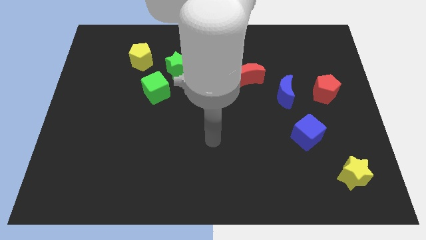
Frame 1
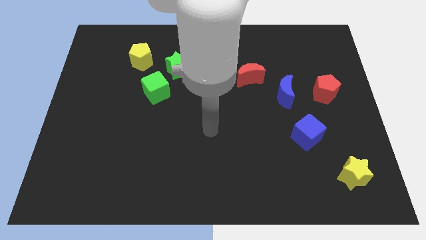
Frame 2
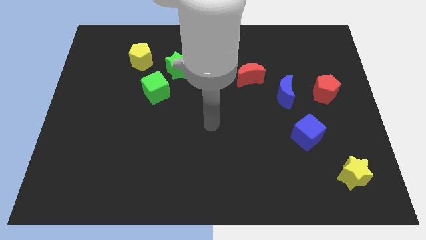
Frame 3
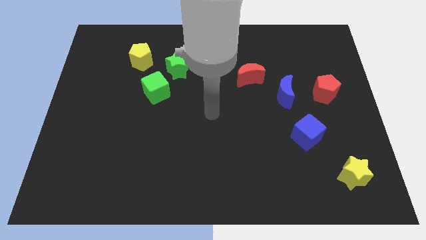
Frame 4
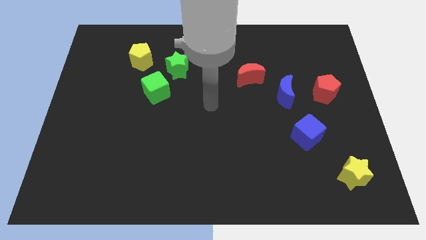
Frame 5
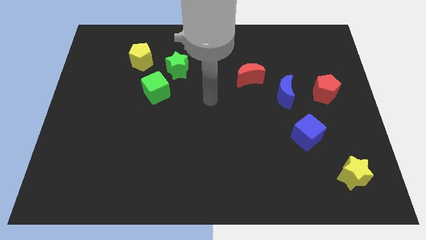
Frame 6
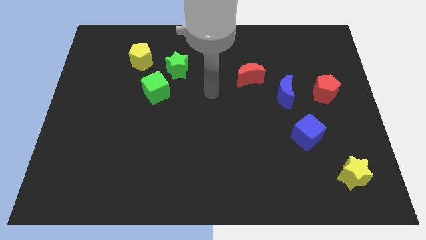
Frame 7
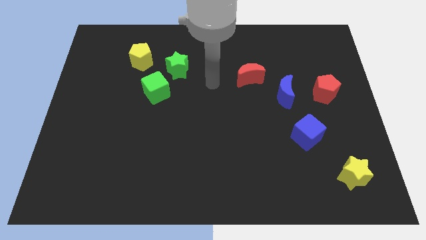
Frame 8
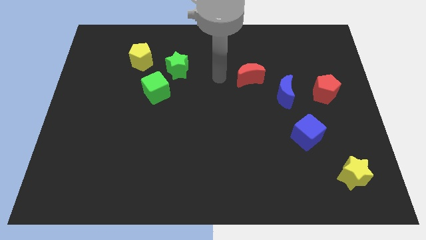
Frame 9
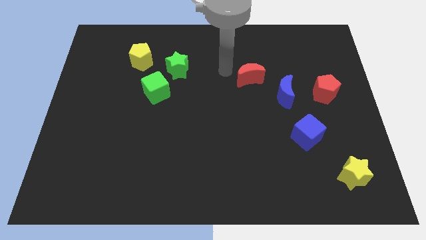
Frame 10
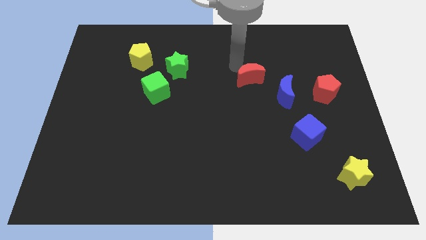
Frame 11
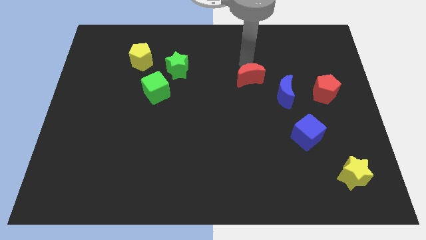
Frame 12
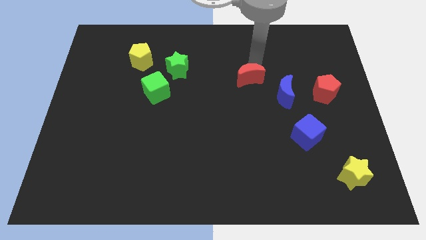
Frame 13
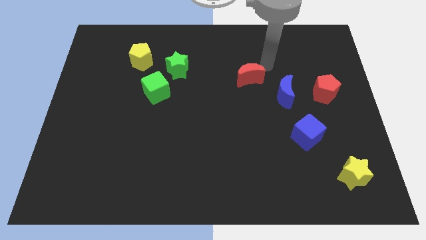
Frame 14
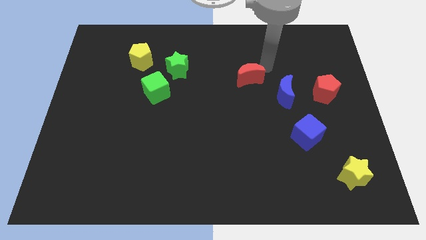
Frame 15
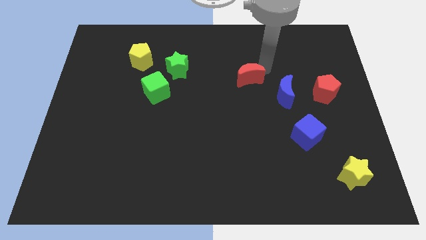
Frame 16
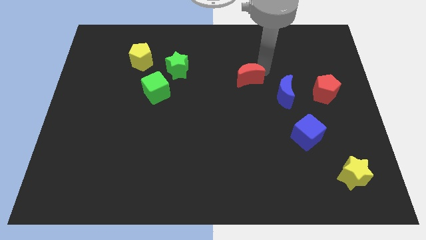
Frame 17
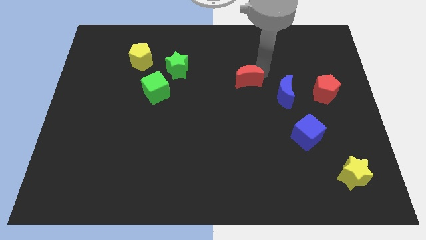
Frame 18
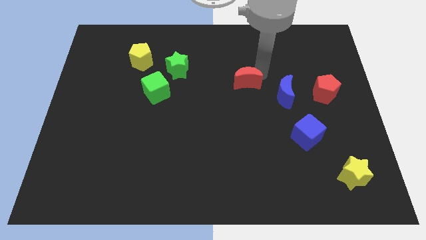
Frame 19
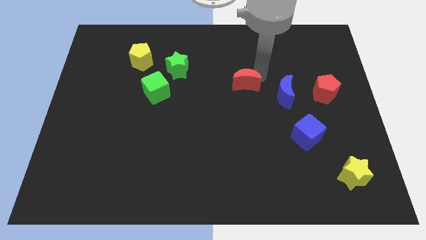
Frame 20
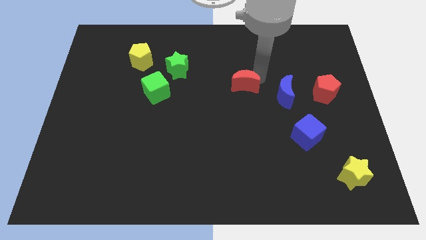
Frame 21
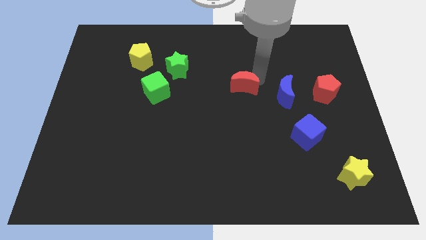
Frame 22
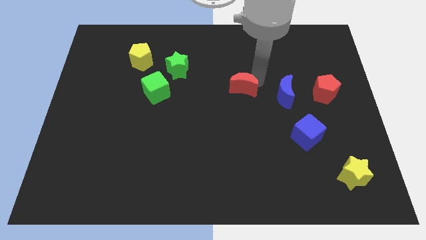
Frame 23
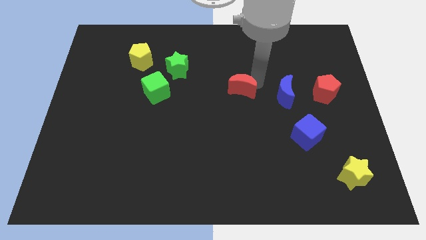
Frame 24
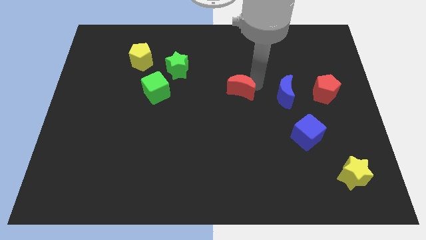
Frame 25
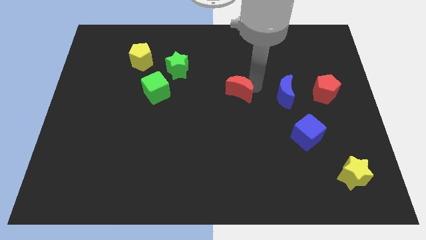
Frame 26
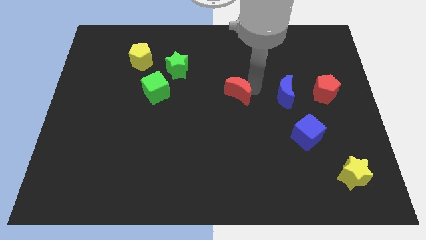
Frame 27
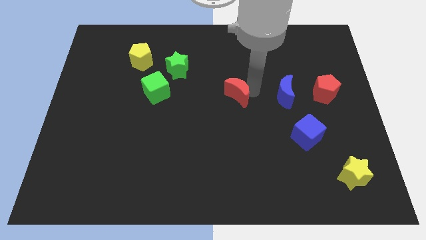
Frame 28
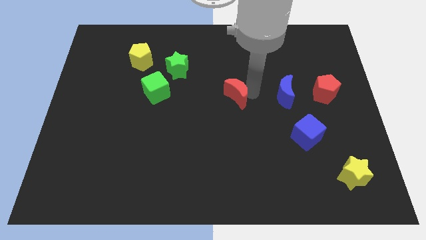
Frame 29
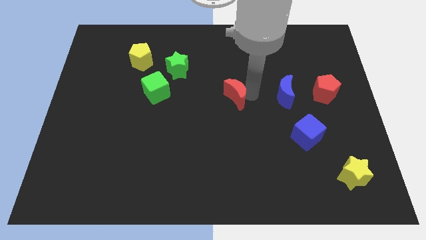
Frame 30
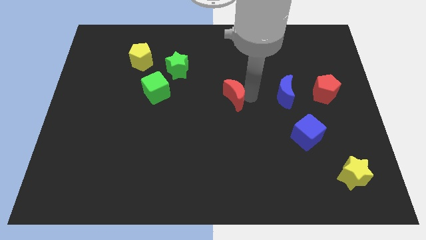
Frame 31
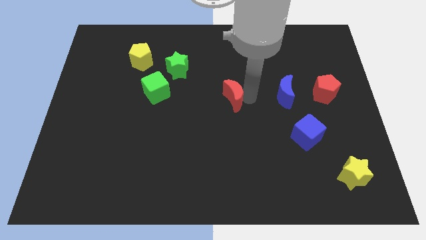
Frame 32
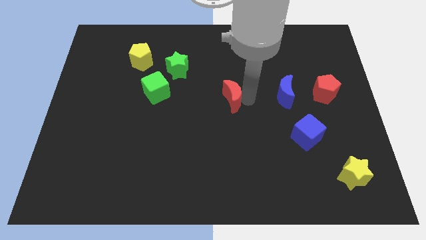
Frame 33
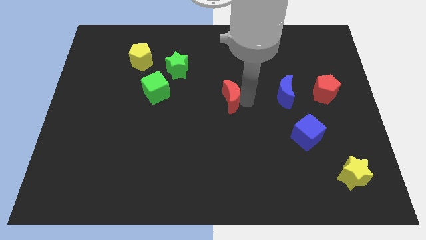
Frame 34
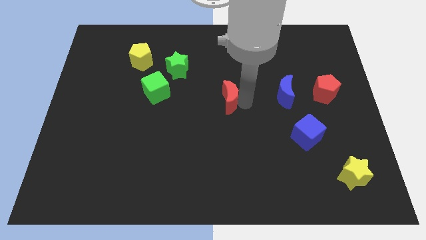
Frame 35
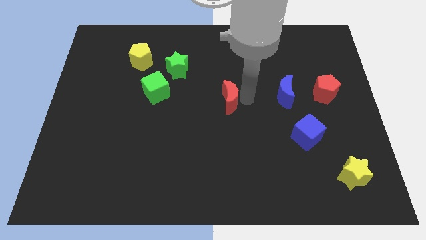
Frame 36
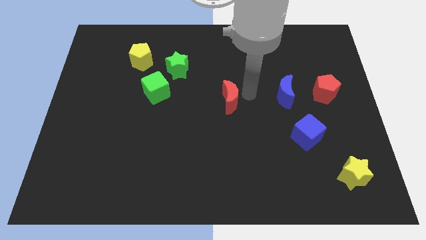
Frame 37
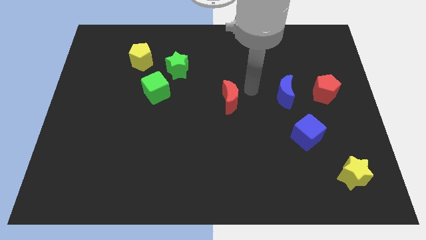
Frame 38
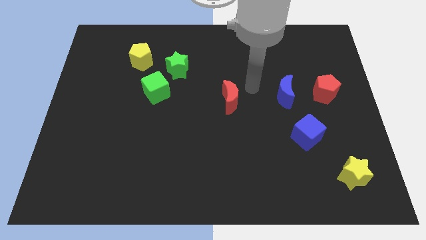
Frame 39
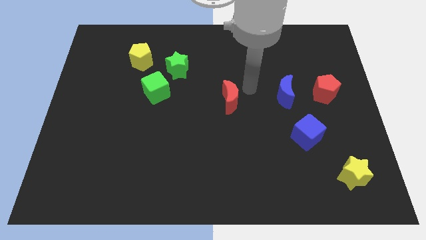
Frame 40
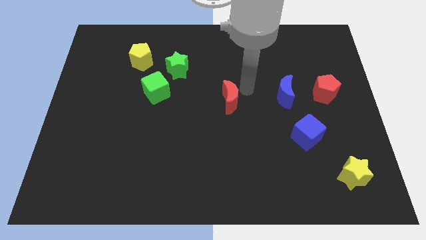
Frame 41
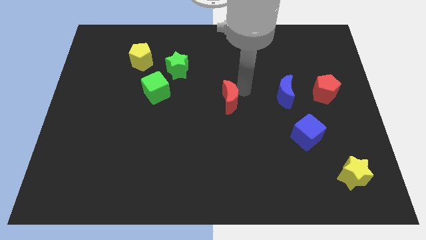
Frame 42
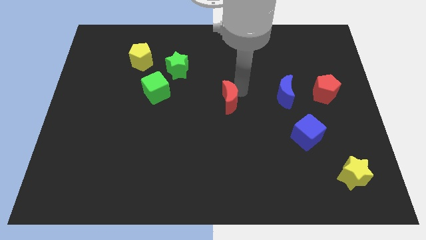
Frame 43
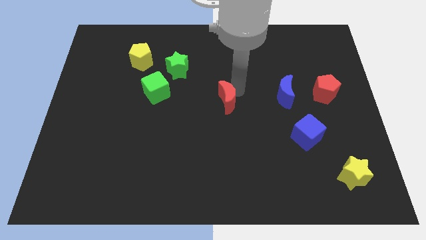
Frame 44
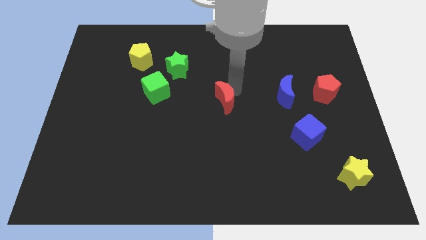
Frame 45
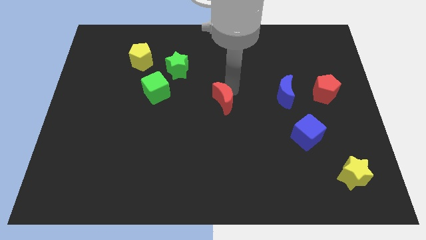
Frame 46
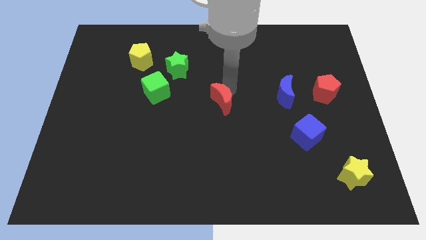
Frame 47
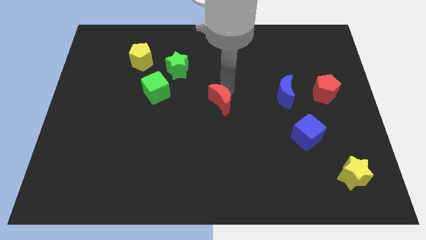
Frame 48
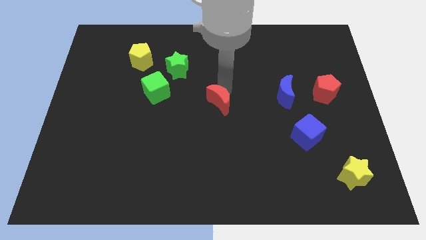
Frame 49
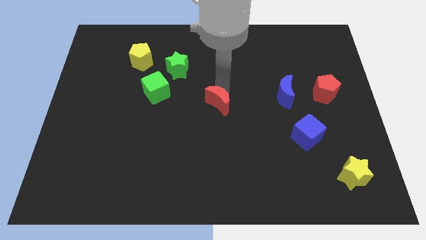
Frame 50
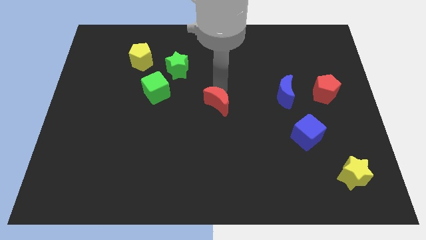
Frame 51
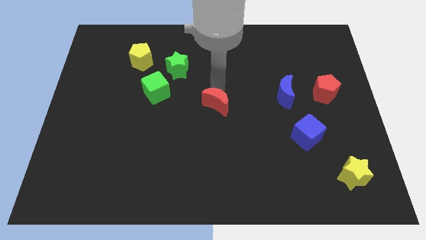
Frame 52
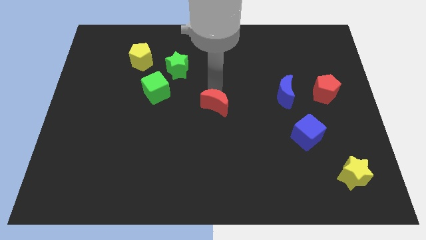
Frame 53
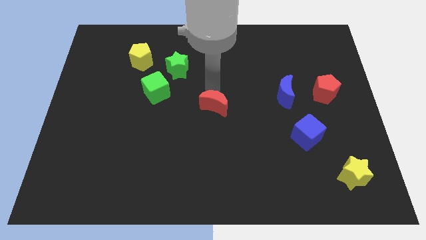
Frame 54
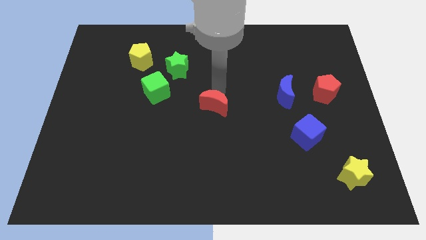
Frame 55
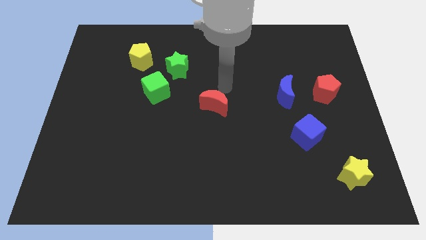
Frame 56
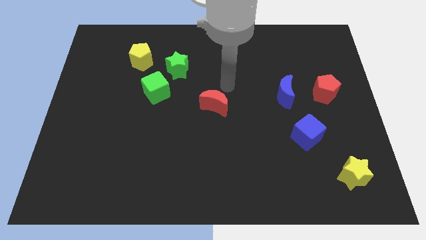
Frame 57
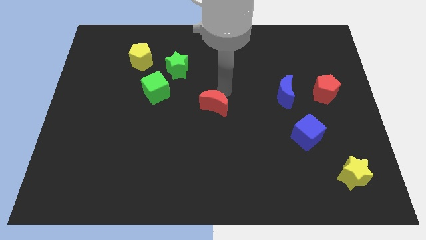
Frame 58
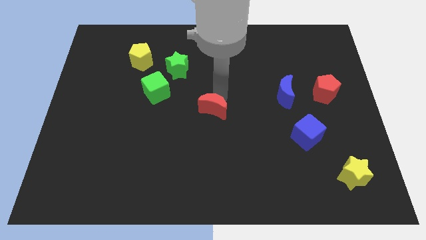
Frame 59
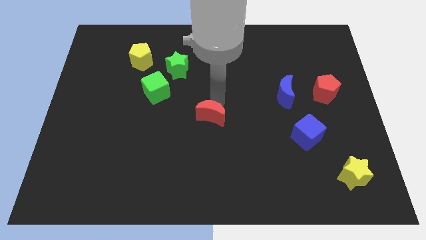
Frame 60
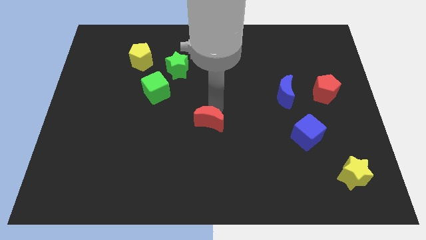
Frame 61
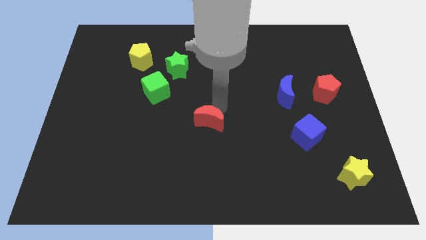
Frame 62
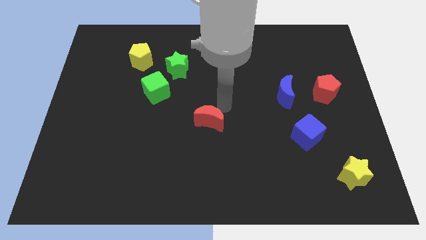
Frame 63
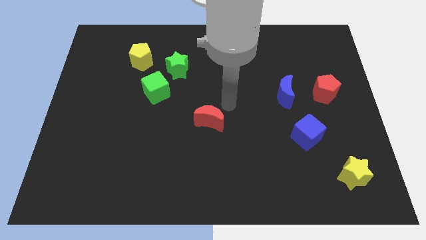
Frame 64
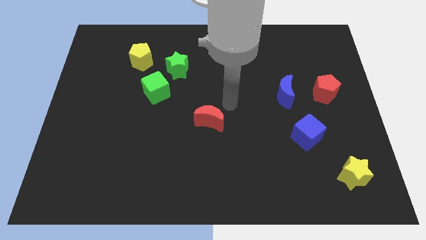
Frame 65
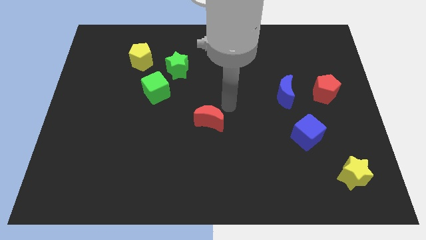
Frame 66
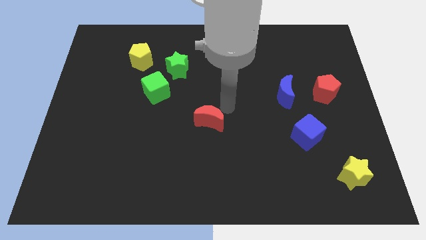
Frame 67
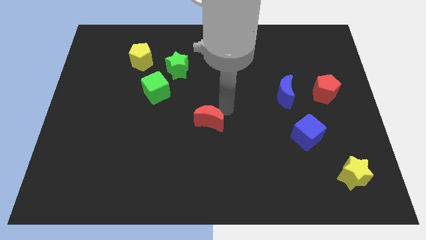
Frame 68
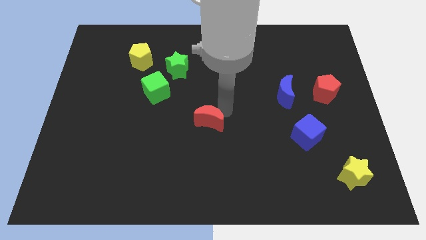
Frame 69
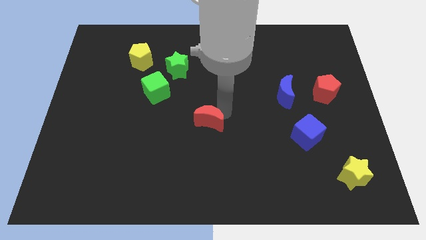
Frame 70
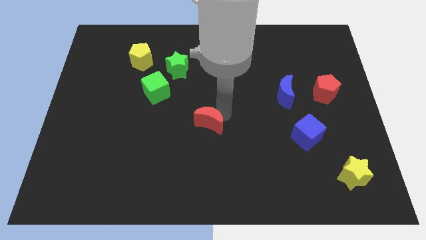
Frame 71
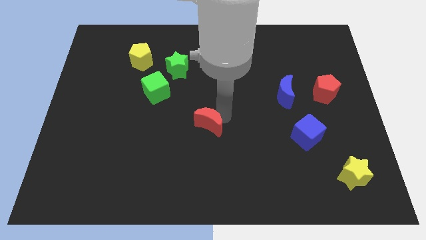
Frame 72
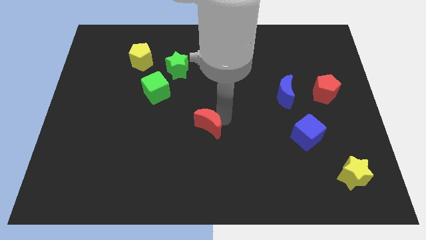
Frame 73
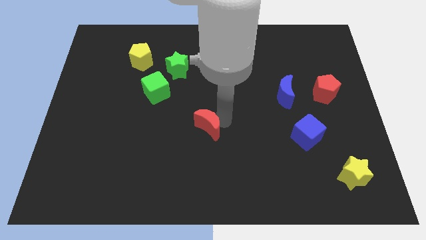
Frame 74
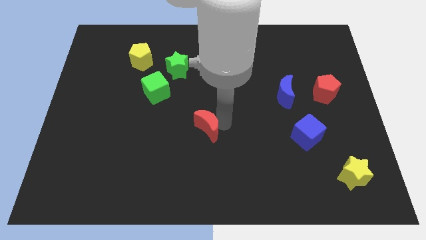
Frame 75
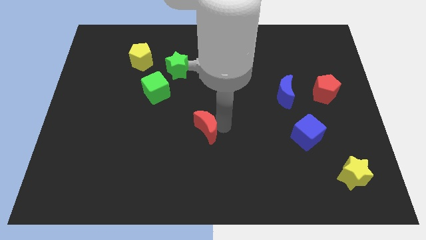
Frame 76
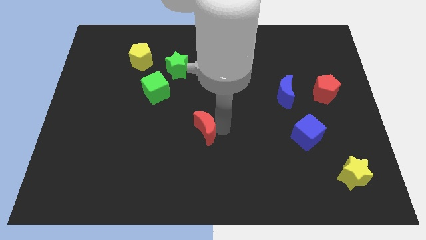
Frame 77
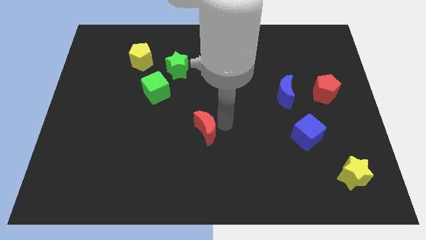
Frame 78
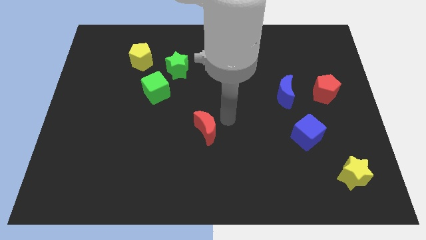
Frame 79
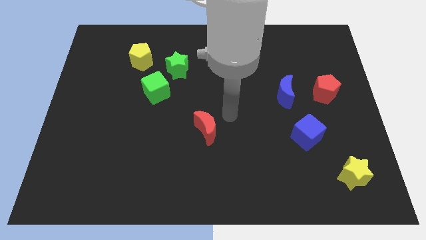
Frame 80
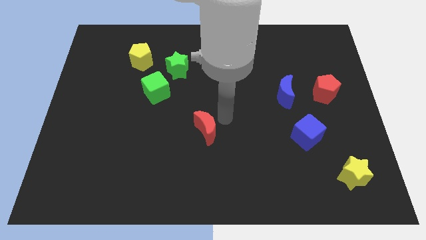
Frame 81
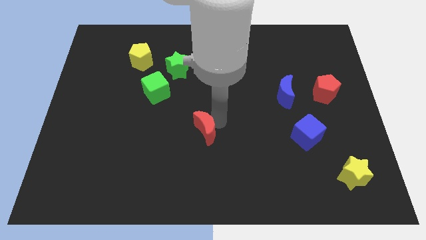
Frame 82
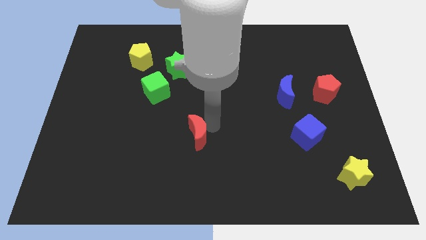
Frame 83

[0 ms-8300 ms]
push the red moon diagonally down and to the left
